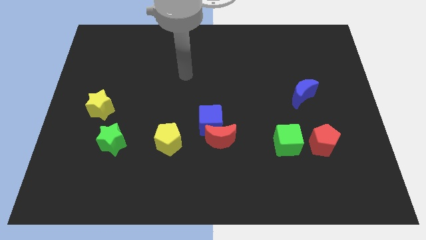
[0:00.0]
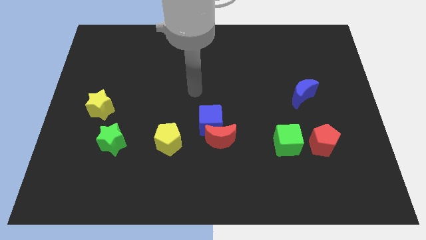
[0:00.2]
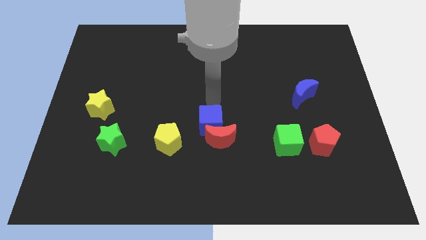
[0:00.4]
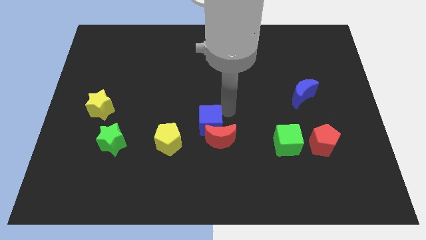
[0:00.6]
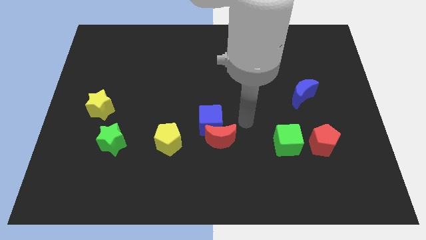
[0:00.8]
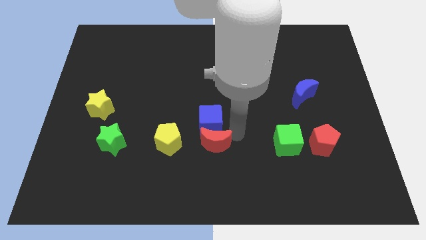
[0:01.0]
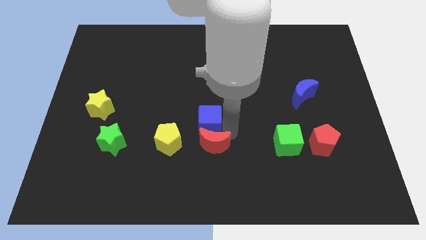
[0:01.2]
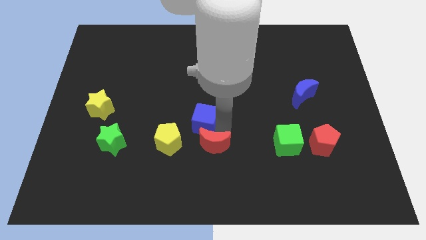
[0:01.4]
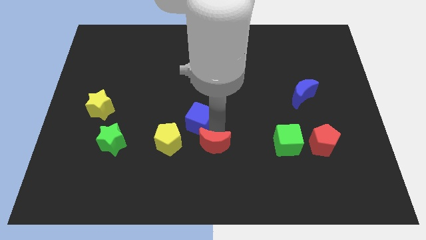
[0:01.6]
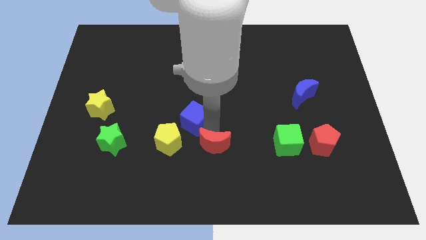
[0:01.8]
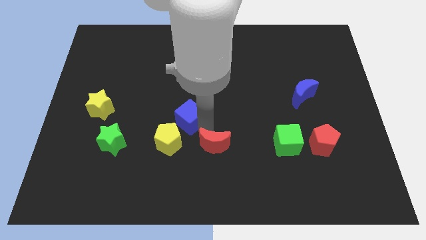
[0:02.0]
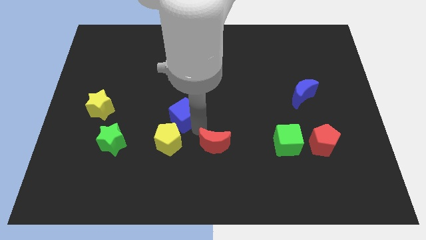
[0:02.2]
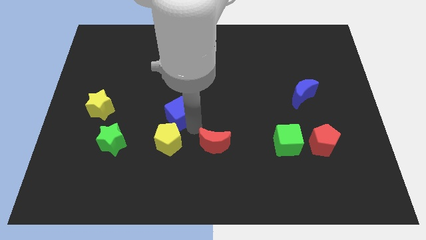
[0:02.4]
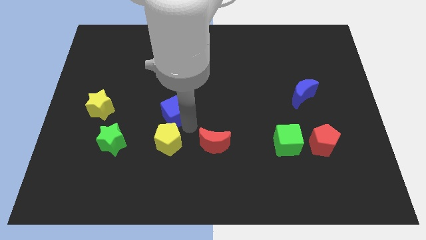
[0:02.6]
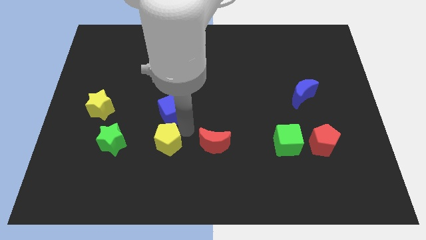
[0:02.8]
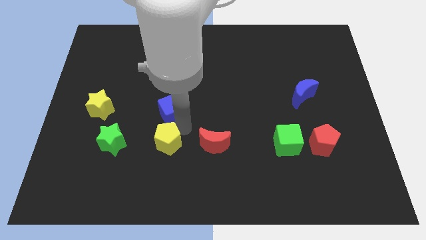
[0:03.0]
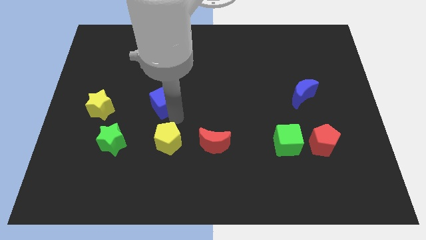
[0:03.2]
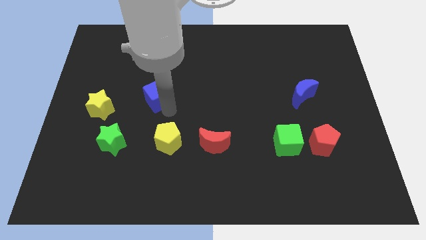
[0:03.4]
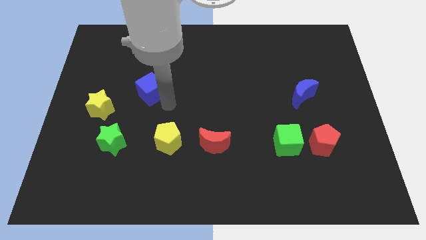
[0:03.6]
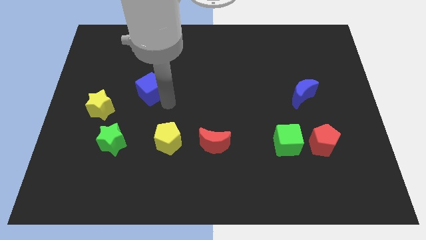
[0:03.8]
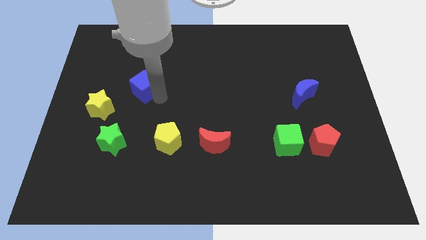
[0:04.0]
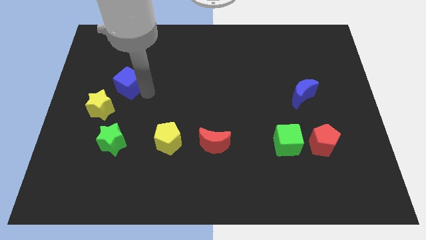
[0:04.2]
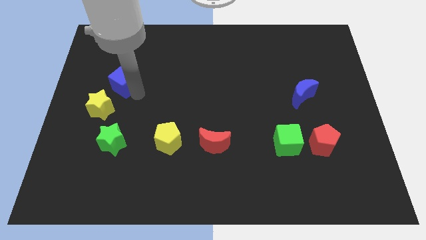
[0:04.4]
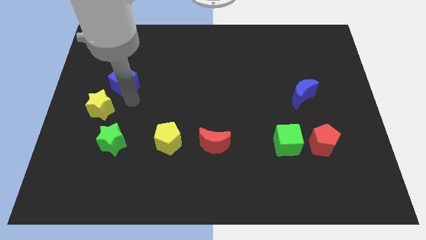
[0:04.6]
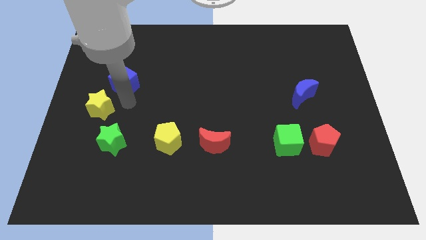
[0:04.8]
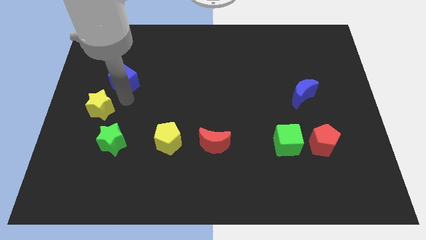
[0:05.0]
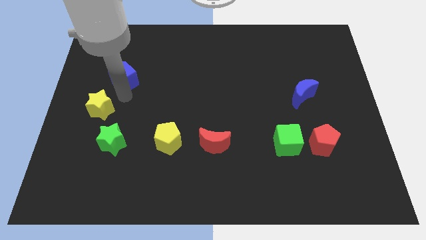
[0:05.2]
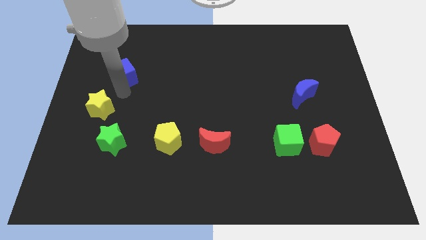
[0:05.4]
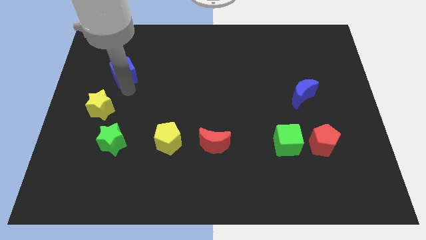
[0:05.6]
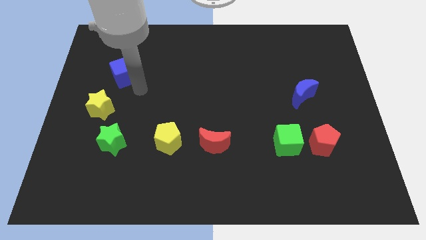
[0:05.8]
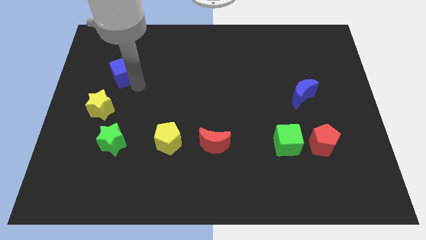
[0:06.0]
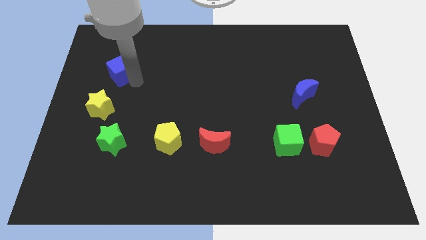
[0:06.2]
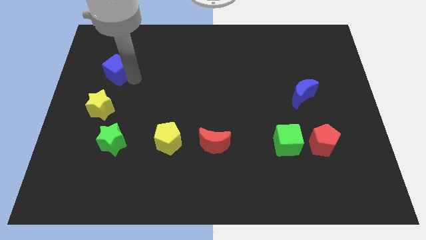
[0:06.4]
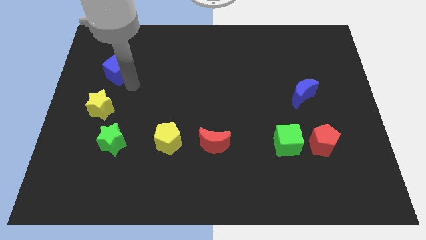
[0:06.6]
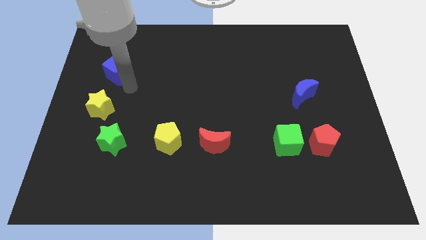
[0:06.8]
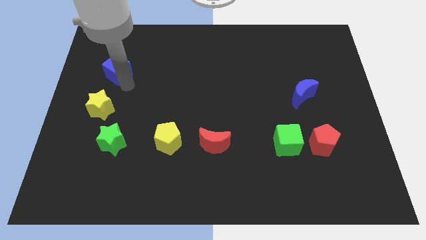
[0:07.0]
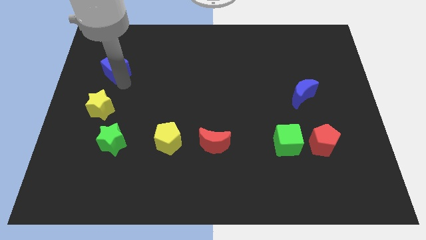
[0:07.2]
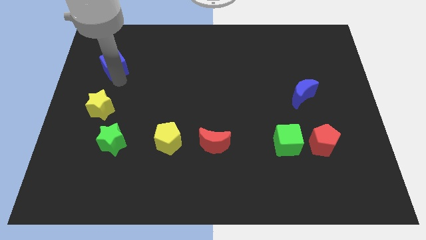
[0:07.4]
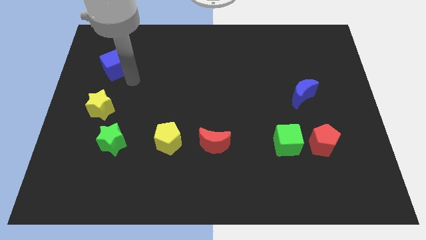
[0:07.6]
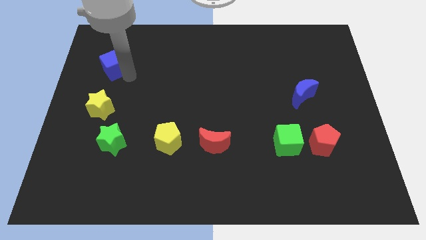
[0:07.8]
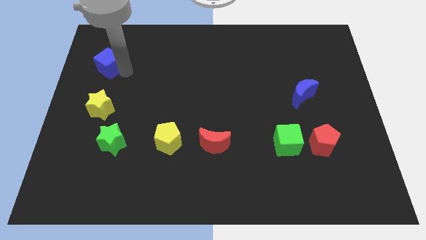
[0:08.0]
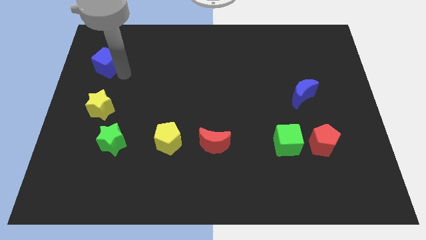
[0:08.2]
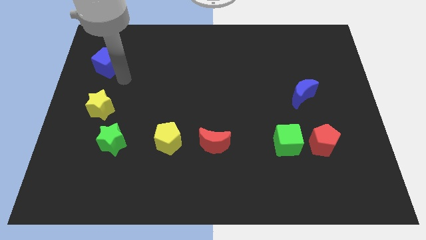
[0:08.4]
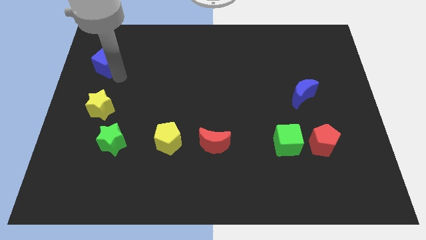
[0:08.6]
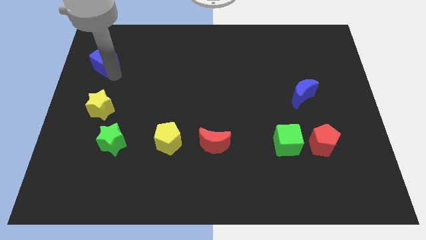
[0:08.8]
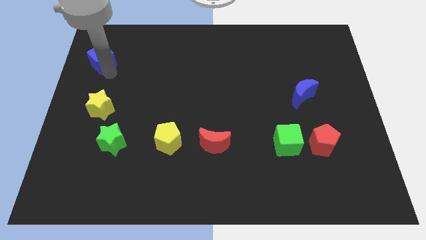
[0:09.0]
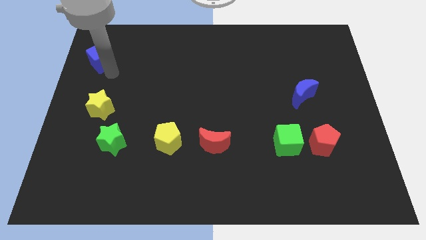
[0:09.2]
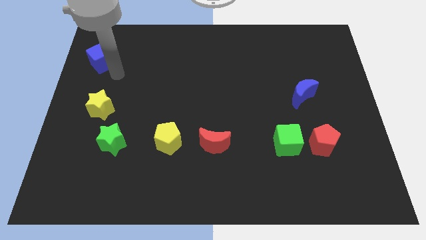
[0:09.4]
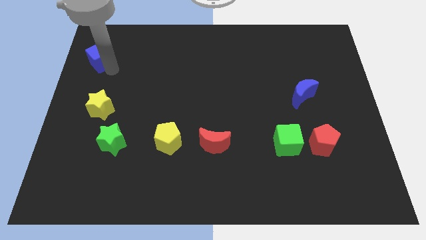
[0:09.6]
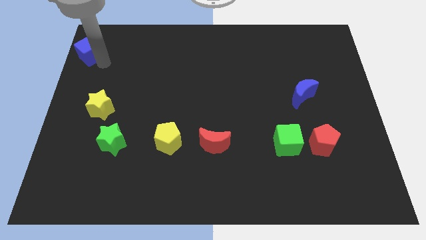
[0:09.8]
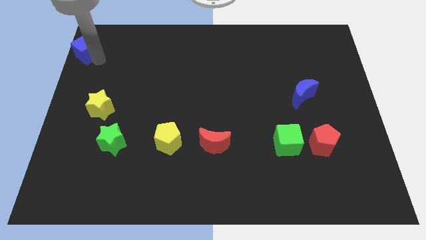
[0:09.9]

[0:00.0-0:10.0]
put the blue cube to the top left of the board

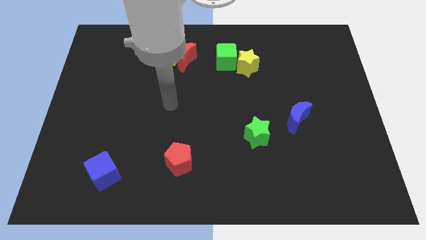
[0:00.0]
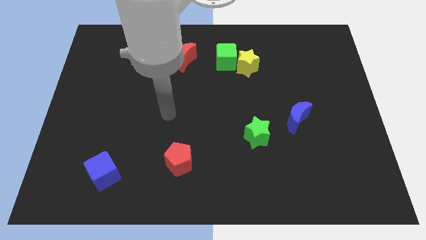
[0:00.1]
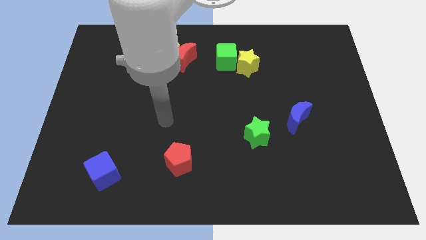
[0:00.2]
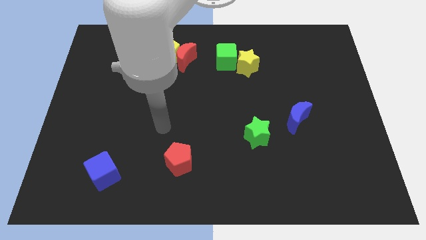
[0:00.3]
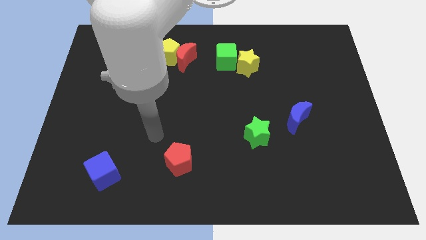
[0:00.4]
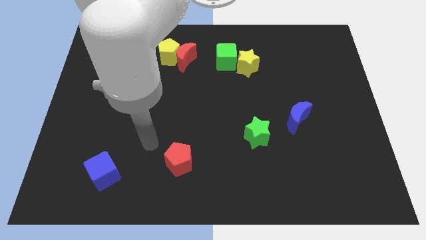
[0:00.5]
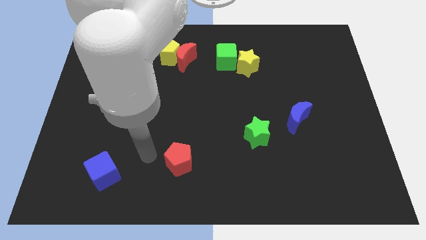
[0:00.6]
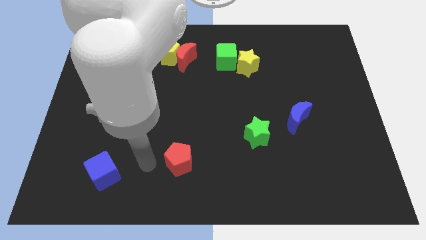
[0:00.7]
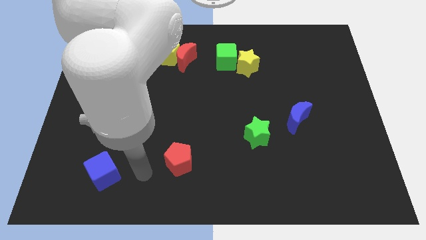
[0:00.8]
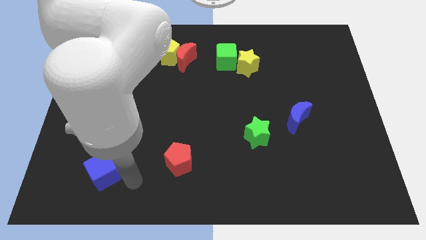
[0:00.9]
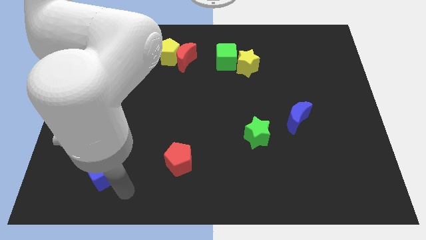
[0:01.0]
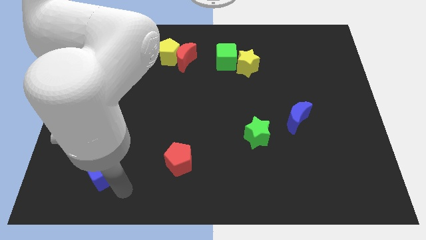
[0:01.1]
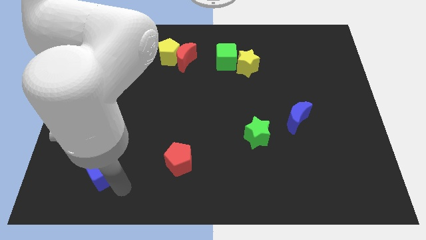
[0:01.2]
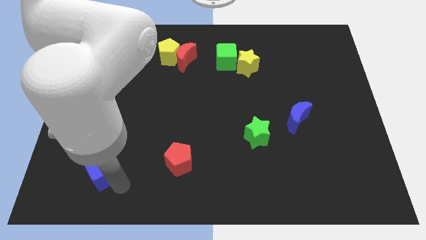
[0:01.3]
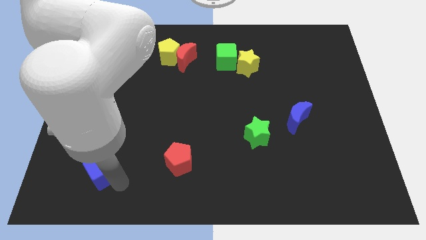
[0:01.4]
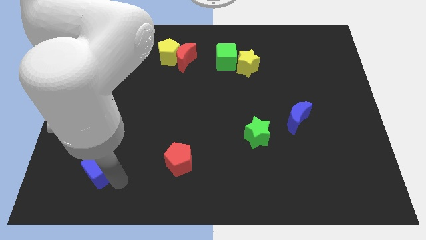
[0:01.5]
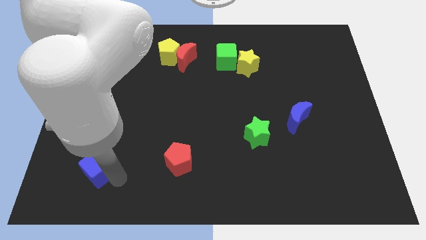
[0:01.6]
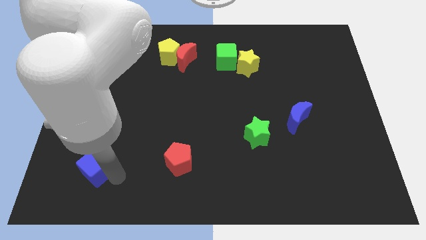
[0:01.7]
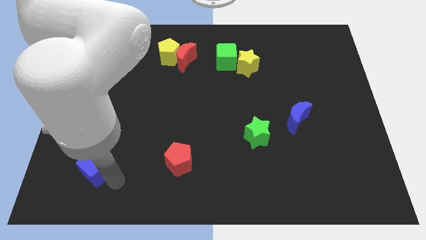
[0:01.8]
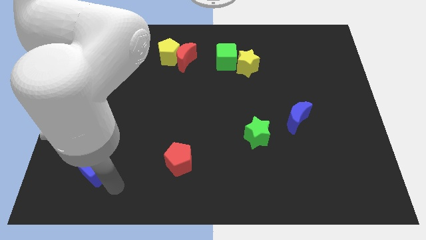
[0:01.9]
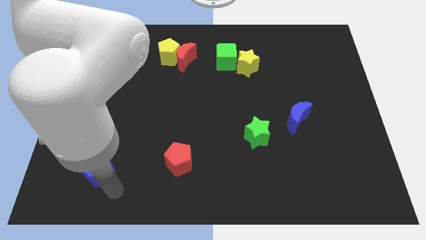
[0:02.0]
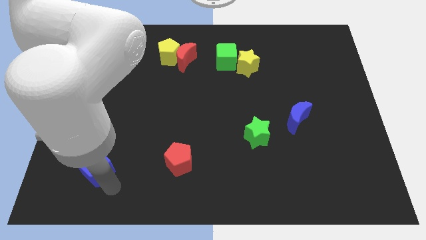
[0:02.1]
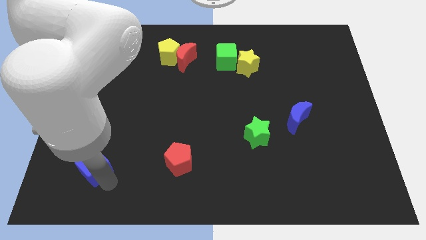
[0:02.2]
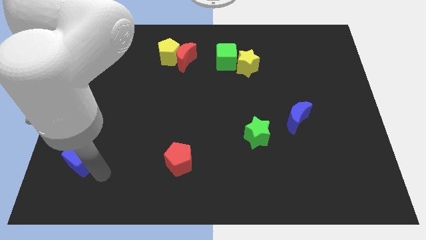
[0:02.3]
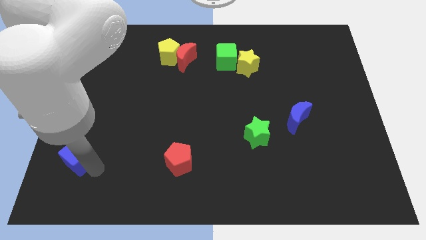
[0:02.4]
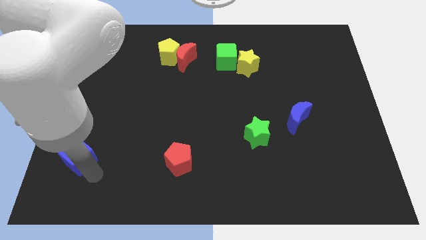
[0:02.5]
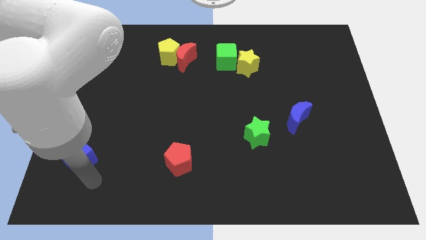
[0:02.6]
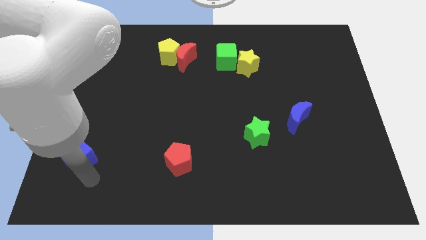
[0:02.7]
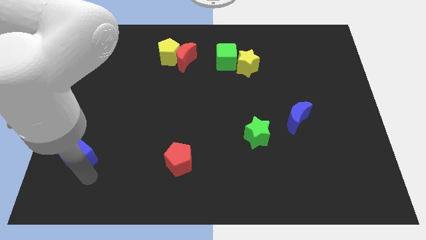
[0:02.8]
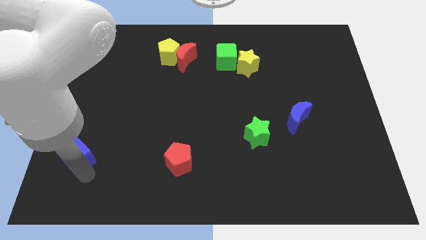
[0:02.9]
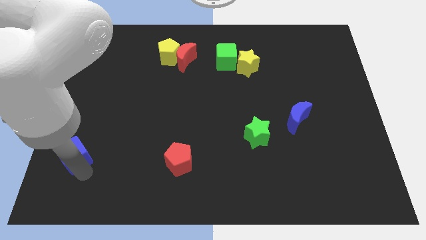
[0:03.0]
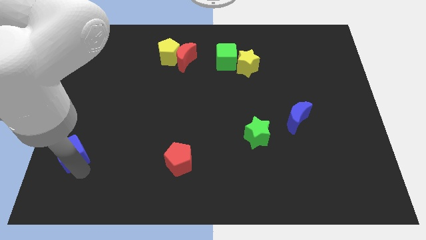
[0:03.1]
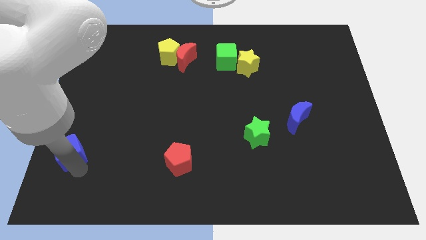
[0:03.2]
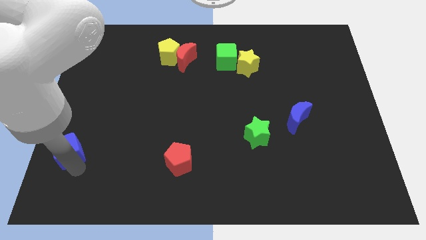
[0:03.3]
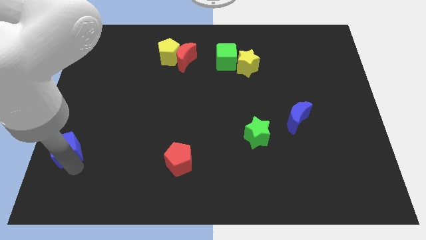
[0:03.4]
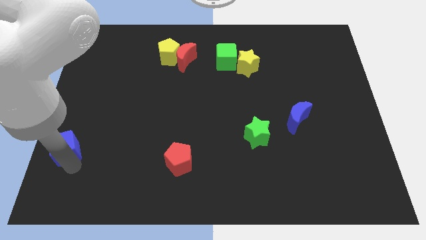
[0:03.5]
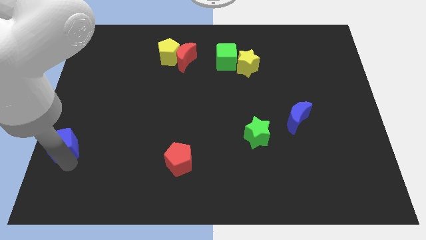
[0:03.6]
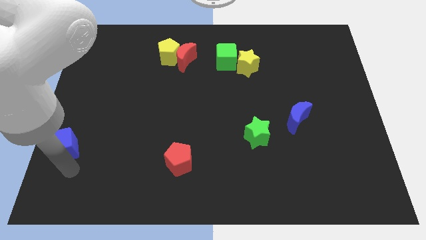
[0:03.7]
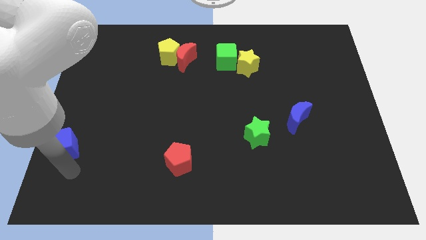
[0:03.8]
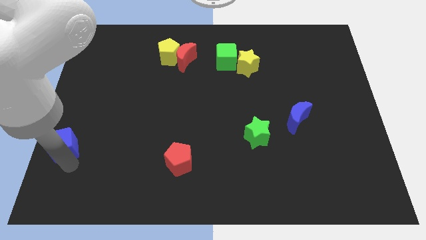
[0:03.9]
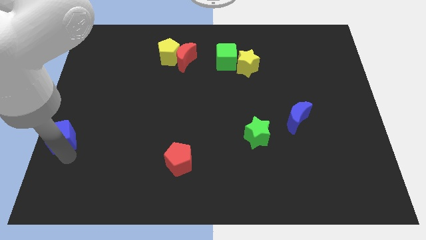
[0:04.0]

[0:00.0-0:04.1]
put the blue cube to the center left
